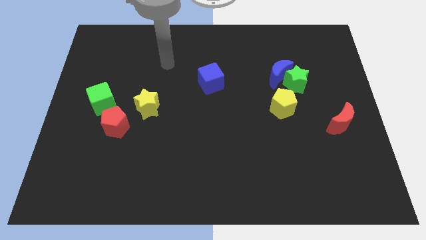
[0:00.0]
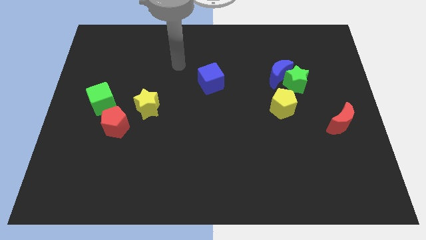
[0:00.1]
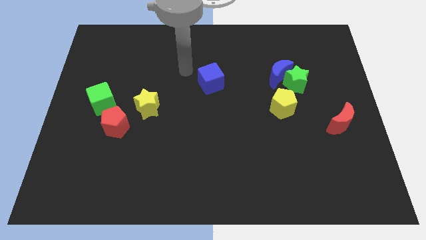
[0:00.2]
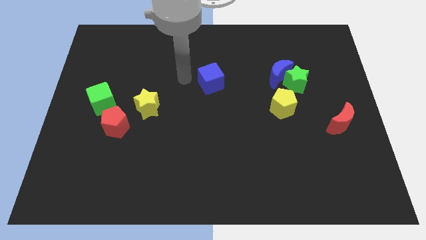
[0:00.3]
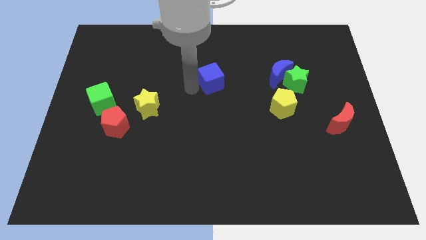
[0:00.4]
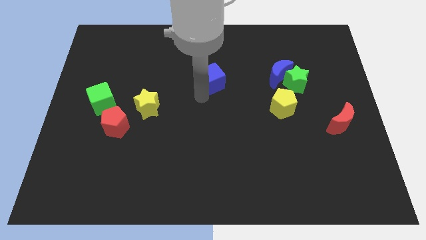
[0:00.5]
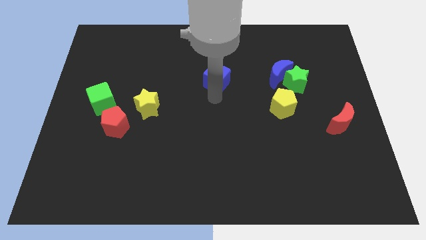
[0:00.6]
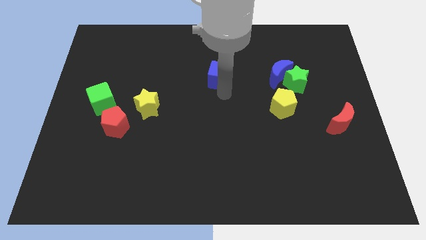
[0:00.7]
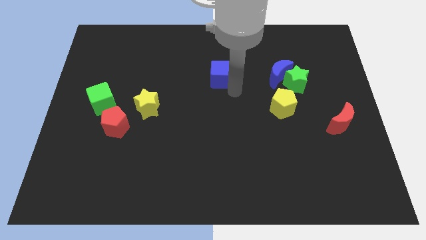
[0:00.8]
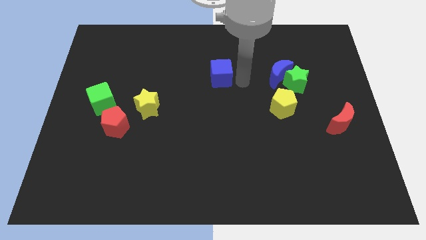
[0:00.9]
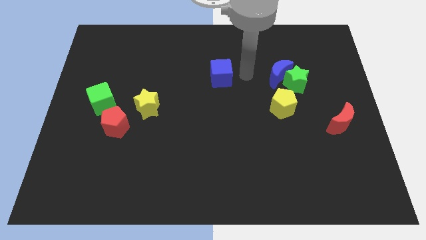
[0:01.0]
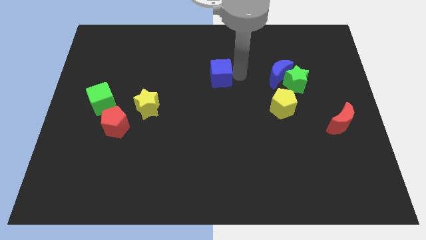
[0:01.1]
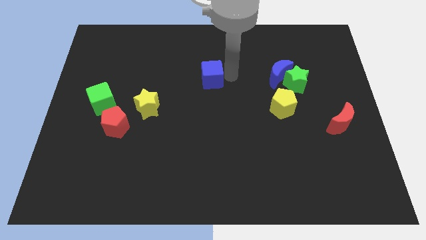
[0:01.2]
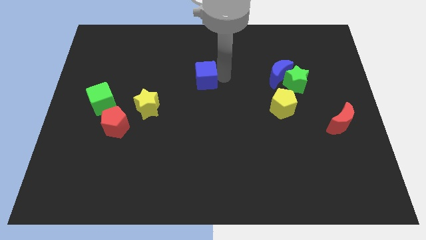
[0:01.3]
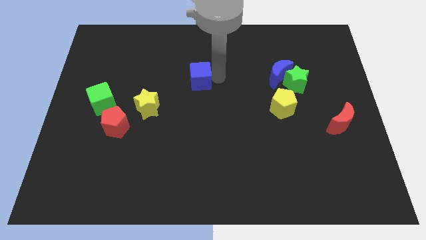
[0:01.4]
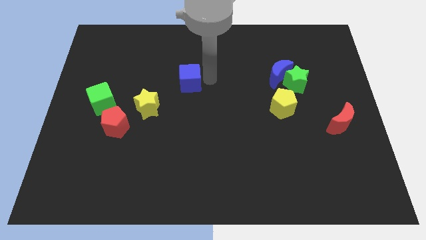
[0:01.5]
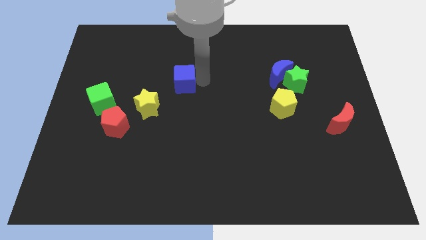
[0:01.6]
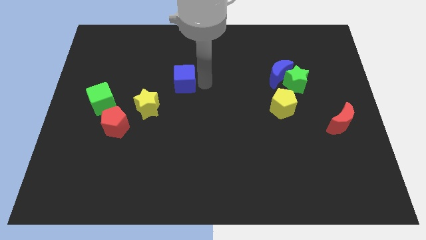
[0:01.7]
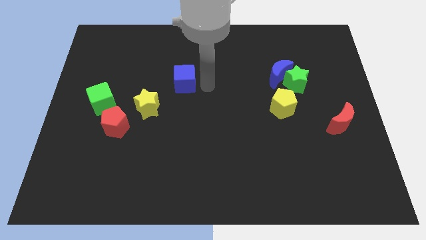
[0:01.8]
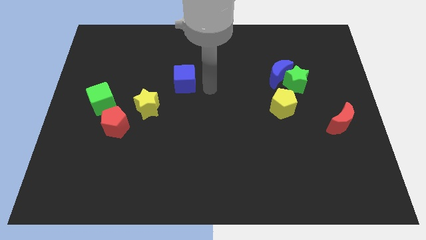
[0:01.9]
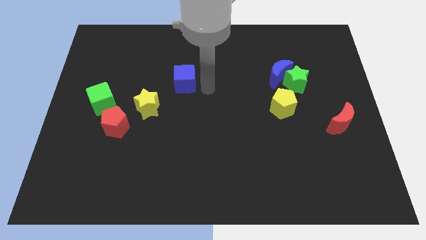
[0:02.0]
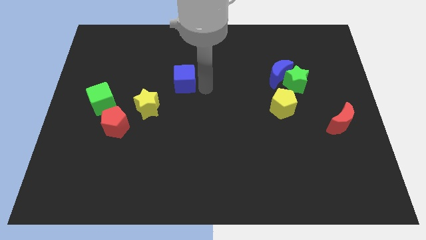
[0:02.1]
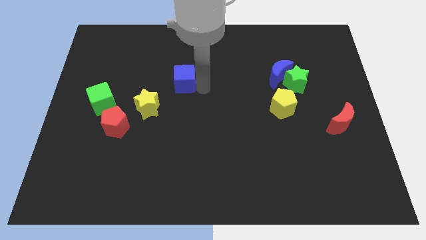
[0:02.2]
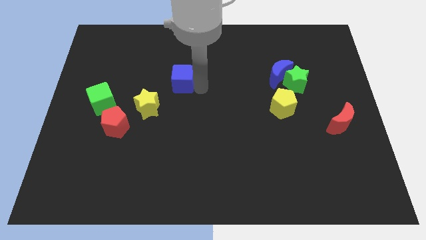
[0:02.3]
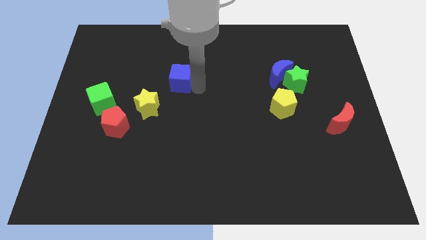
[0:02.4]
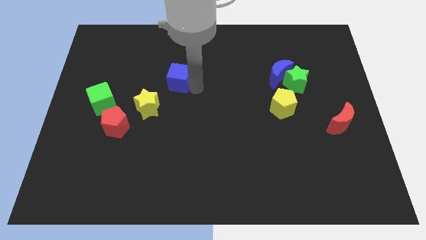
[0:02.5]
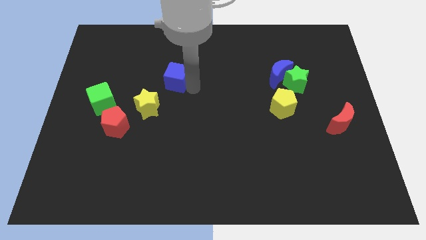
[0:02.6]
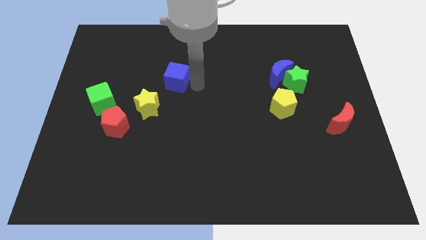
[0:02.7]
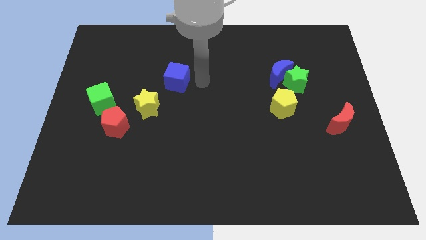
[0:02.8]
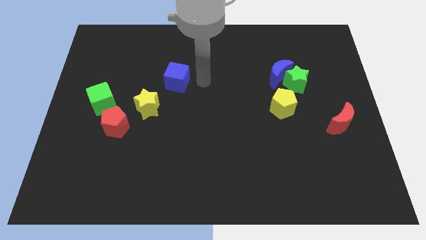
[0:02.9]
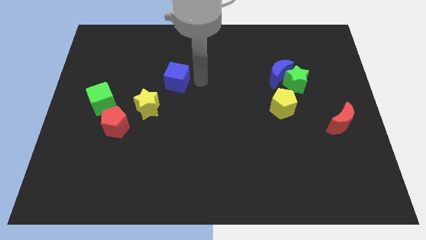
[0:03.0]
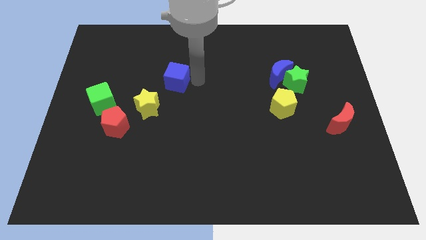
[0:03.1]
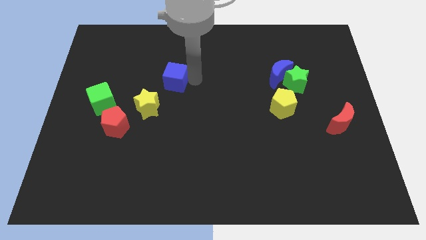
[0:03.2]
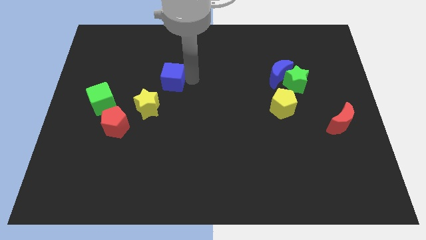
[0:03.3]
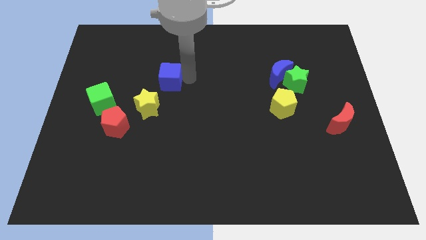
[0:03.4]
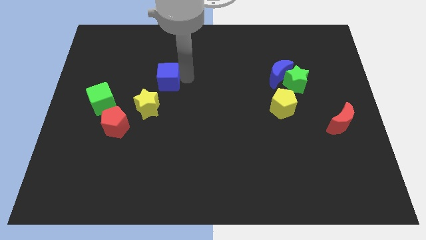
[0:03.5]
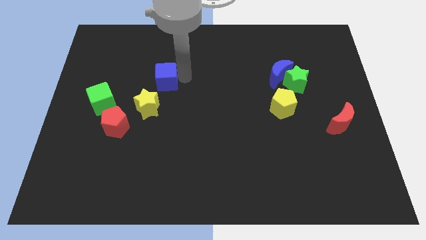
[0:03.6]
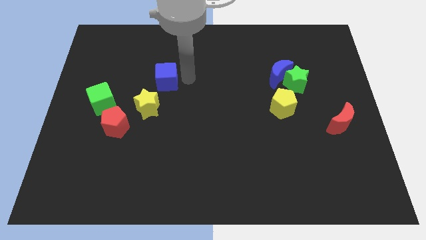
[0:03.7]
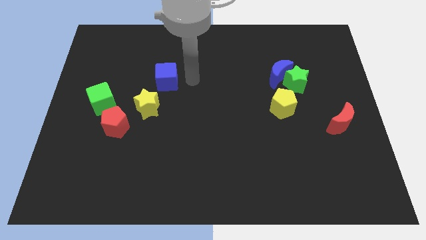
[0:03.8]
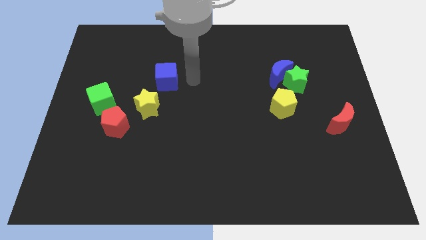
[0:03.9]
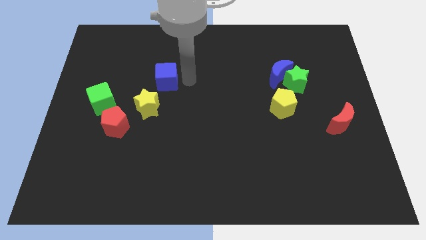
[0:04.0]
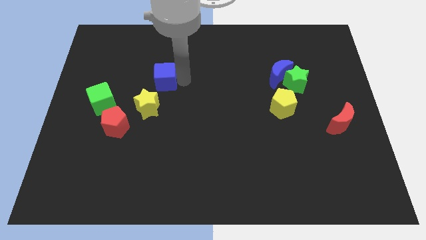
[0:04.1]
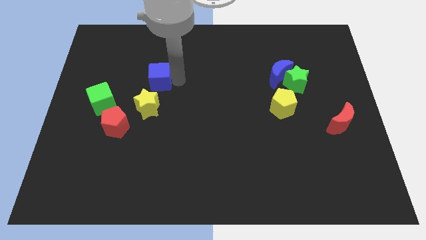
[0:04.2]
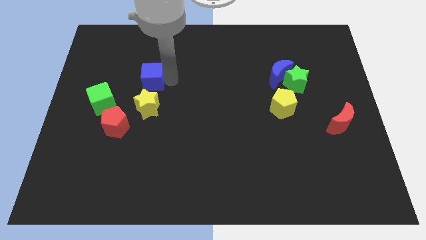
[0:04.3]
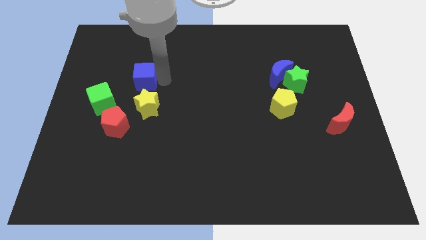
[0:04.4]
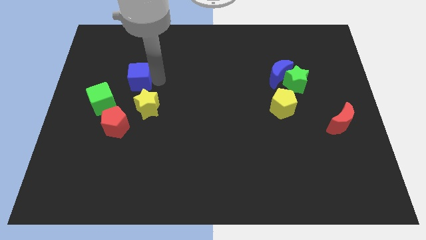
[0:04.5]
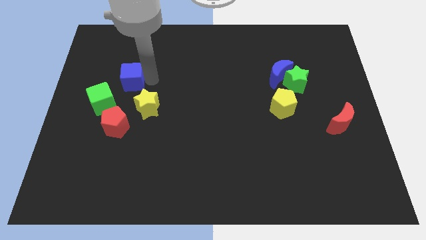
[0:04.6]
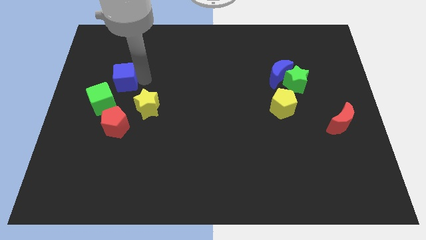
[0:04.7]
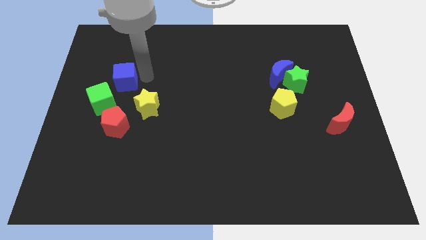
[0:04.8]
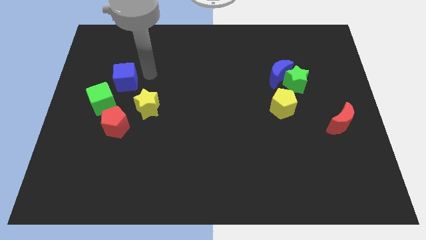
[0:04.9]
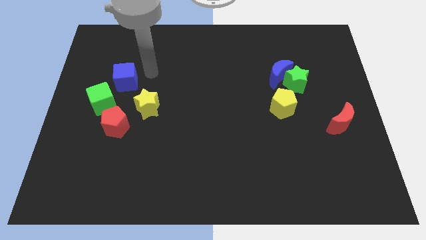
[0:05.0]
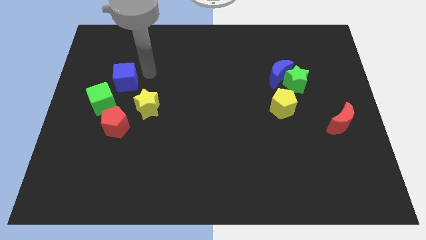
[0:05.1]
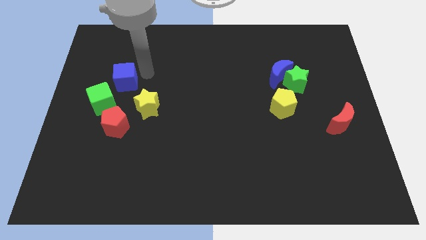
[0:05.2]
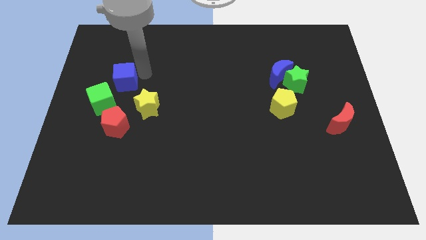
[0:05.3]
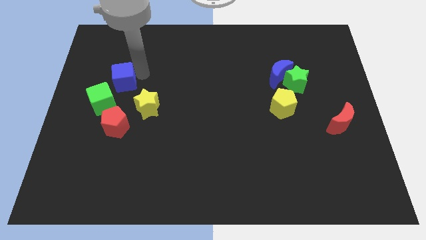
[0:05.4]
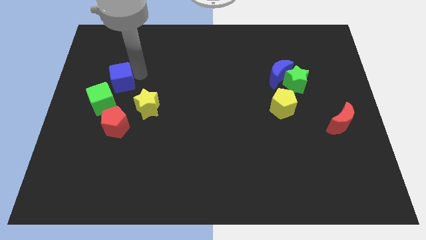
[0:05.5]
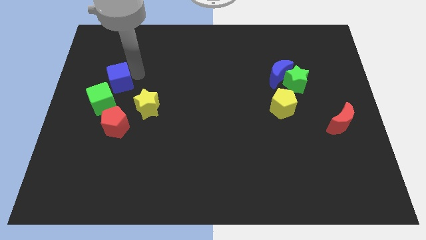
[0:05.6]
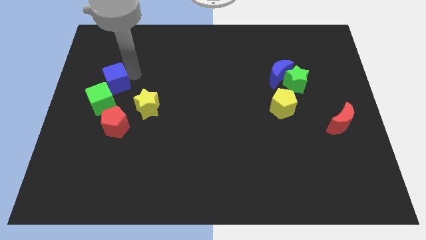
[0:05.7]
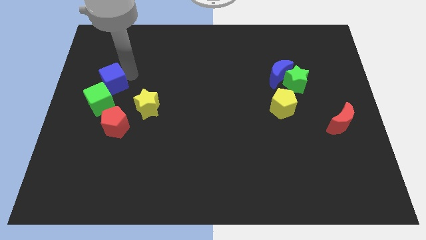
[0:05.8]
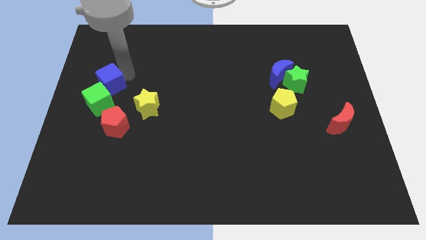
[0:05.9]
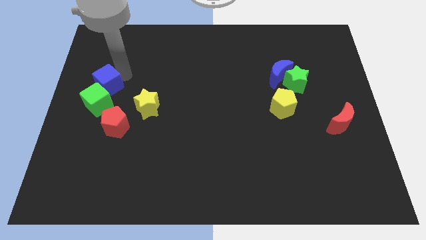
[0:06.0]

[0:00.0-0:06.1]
move the blue cube to the left side

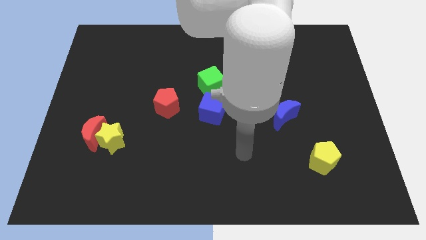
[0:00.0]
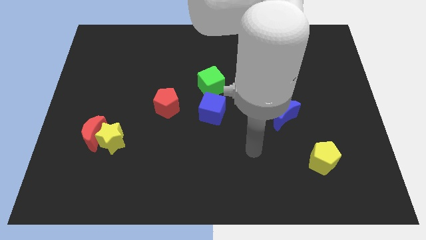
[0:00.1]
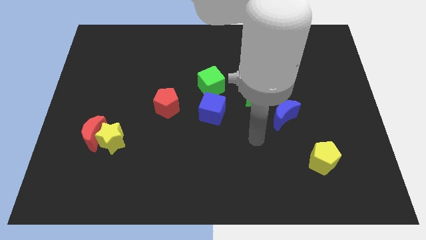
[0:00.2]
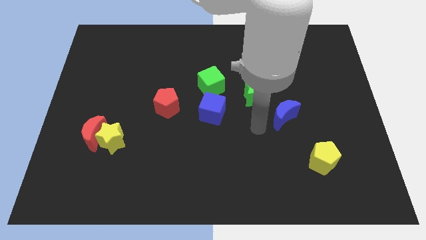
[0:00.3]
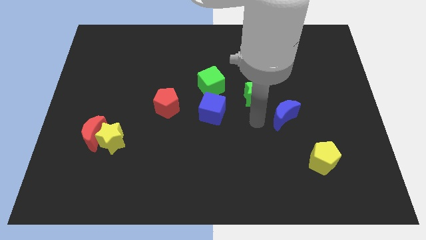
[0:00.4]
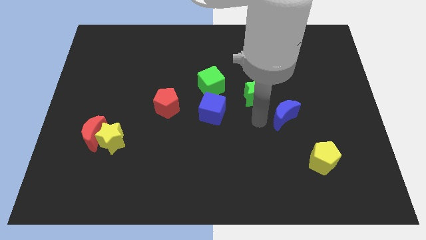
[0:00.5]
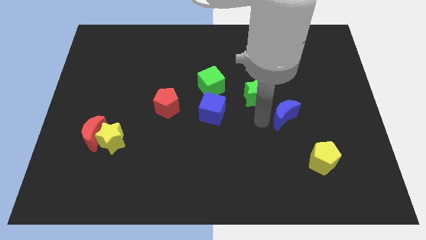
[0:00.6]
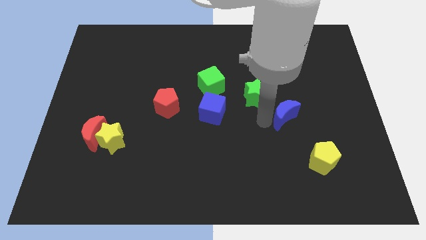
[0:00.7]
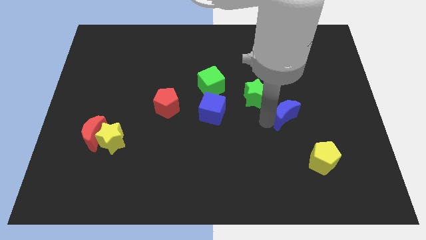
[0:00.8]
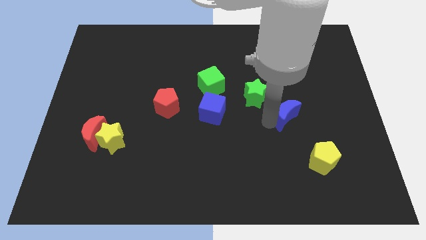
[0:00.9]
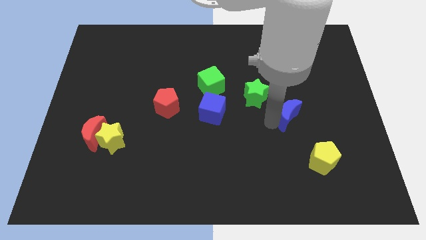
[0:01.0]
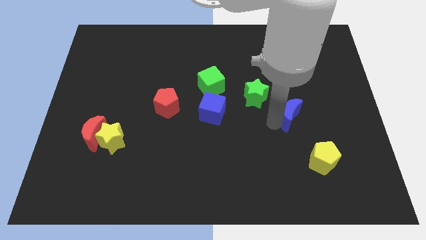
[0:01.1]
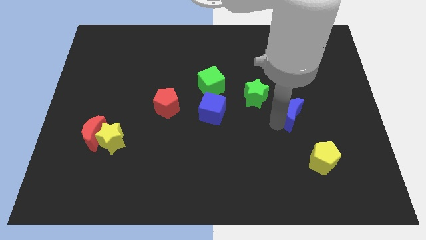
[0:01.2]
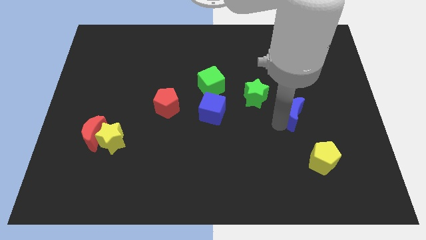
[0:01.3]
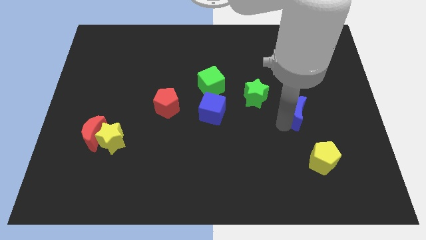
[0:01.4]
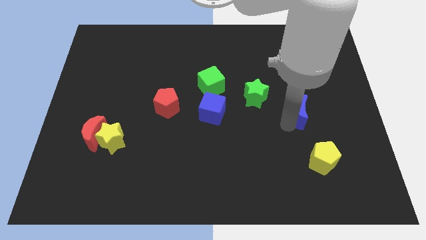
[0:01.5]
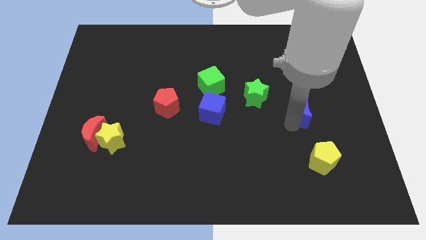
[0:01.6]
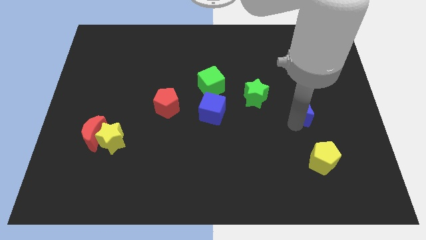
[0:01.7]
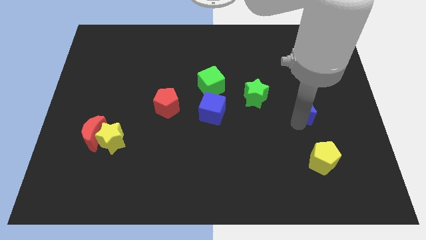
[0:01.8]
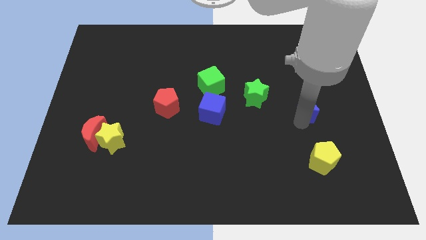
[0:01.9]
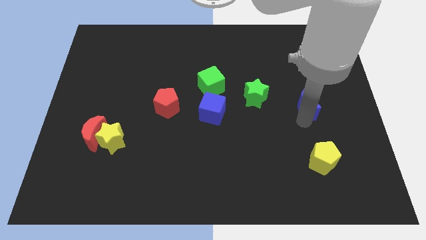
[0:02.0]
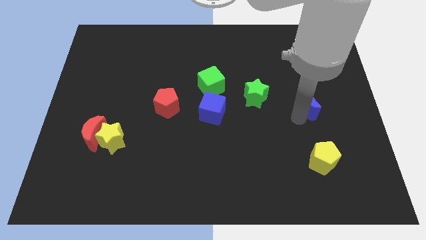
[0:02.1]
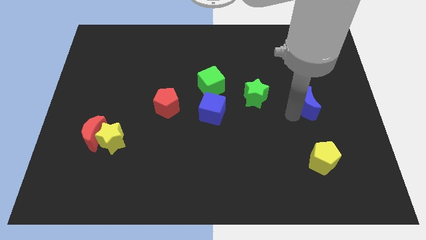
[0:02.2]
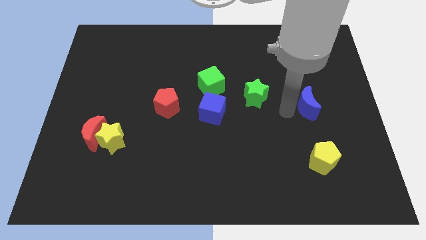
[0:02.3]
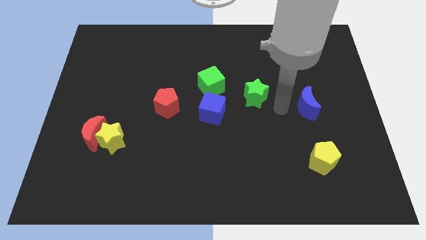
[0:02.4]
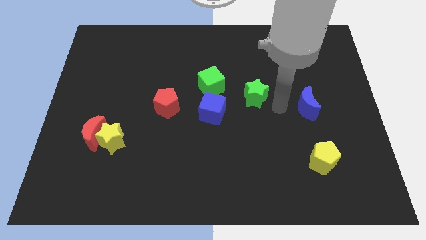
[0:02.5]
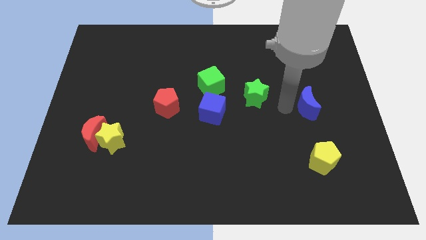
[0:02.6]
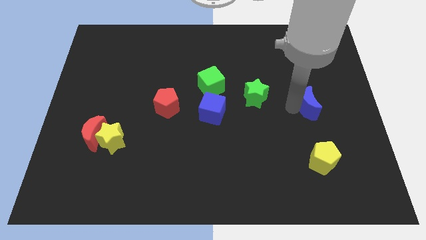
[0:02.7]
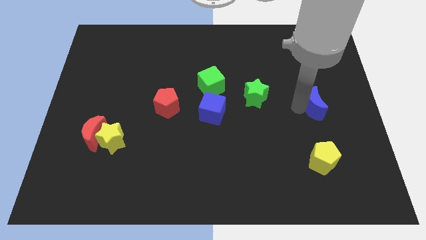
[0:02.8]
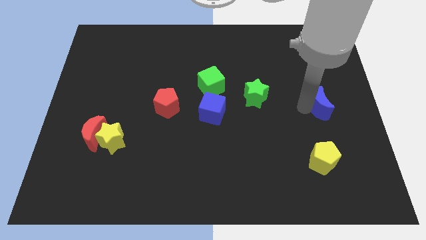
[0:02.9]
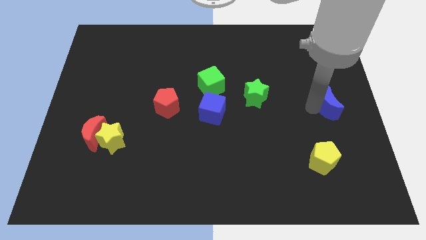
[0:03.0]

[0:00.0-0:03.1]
slide the blue moon to the center right
